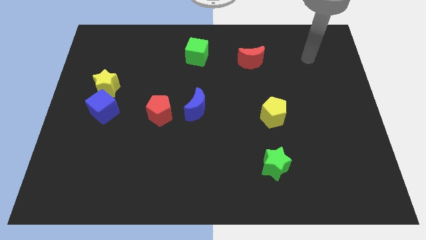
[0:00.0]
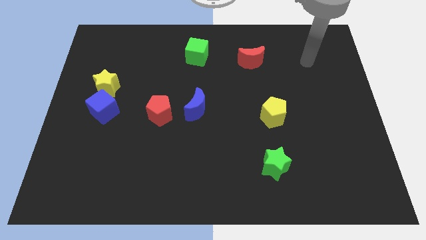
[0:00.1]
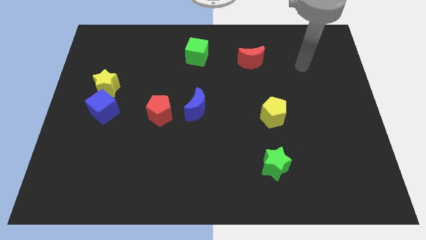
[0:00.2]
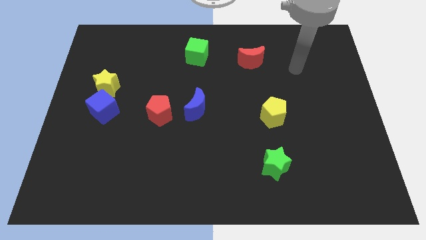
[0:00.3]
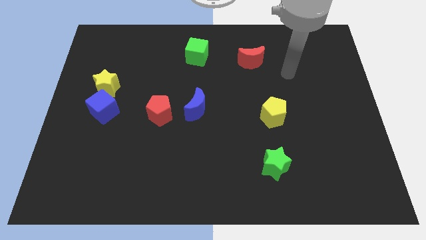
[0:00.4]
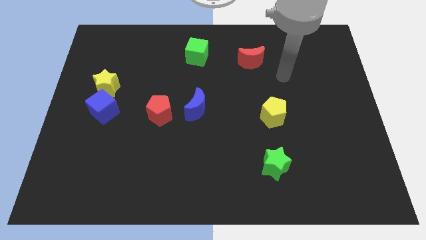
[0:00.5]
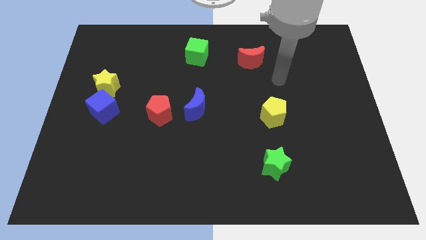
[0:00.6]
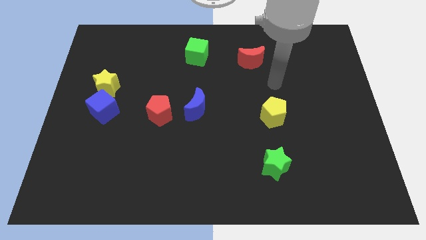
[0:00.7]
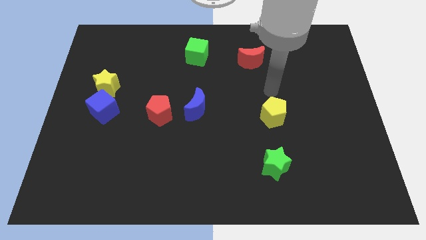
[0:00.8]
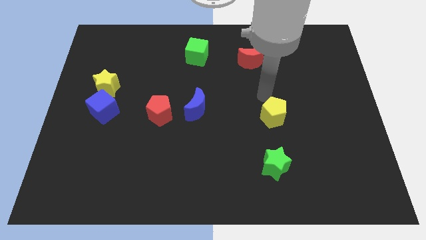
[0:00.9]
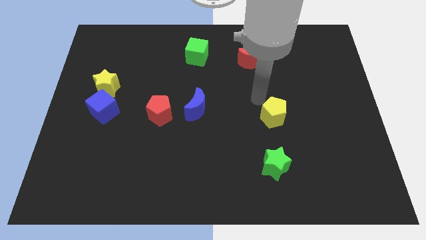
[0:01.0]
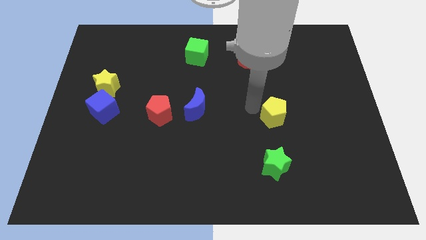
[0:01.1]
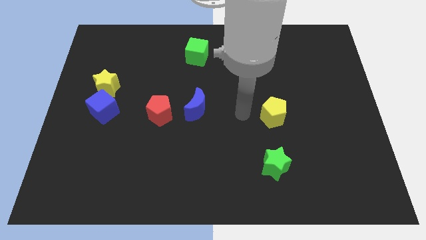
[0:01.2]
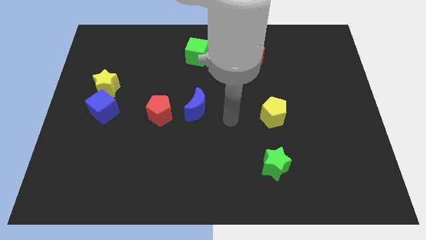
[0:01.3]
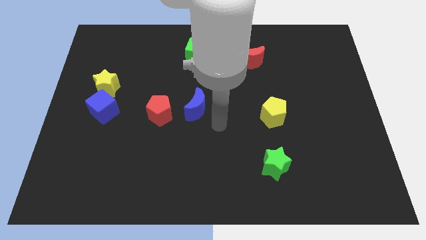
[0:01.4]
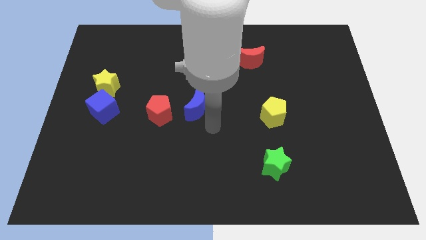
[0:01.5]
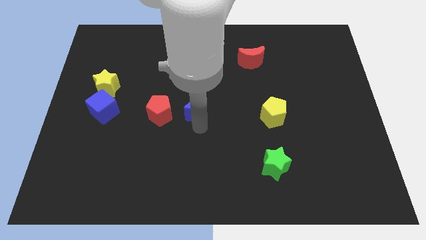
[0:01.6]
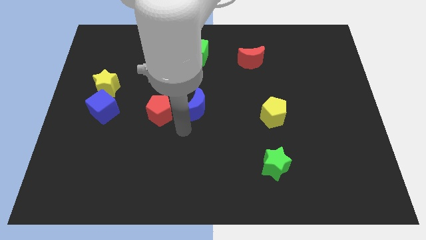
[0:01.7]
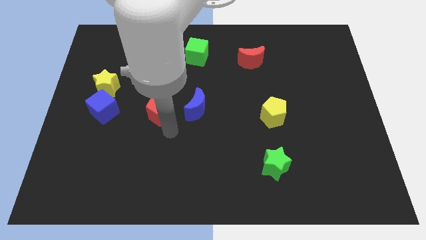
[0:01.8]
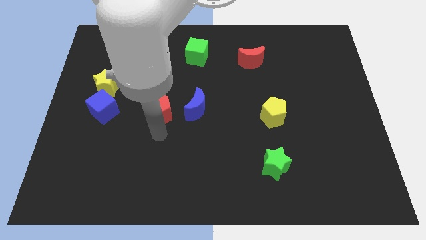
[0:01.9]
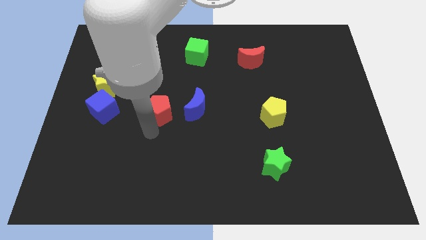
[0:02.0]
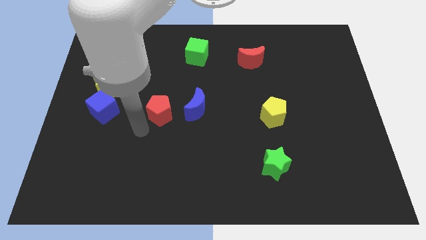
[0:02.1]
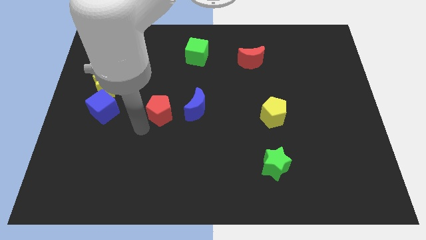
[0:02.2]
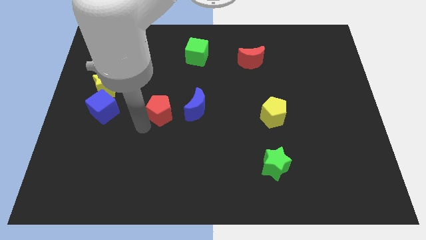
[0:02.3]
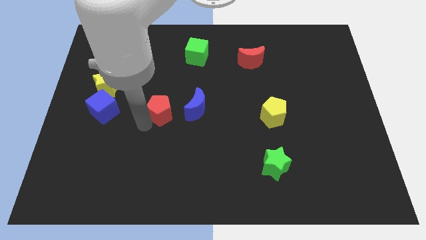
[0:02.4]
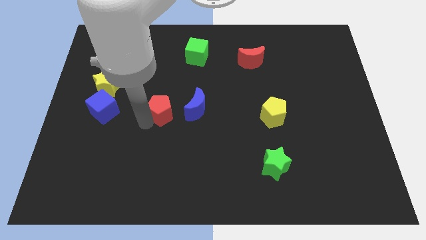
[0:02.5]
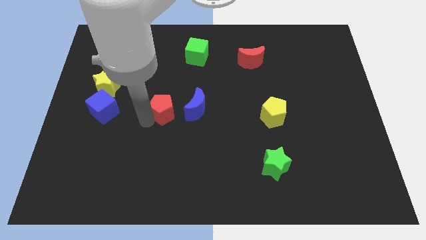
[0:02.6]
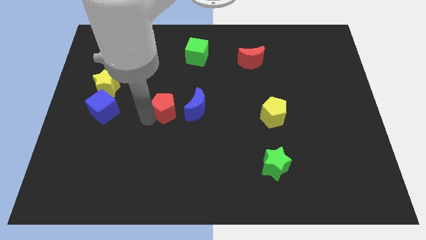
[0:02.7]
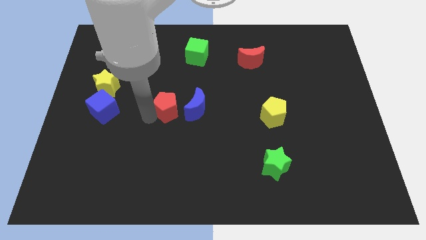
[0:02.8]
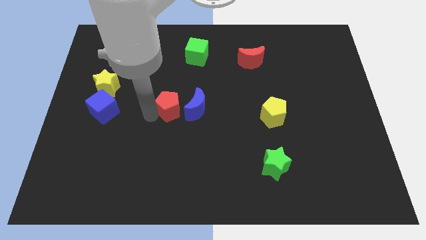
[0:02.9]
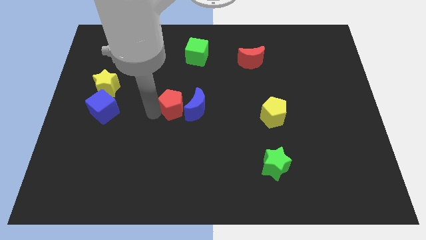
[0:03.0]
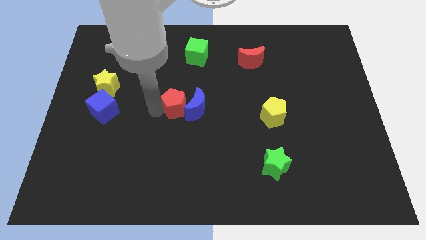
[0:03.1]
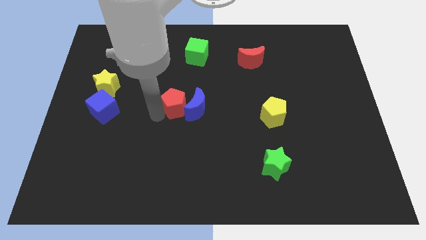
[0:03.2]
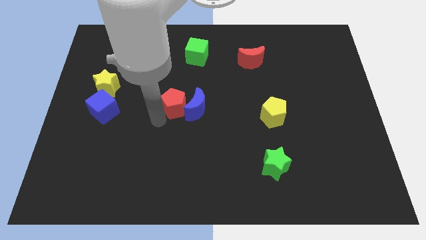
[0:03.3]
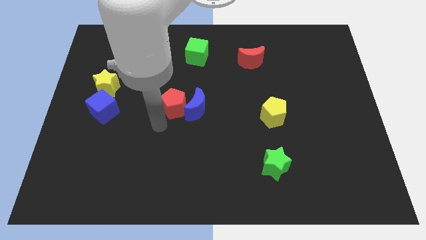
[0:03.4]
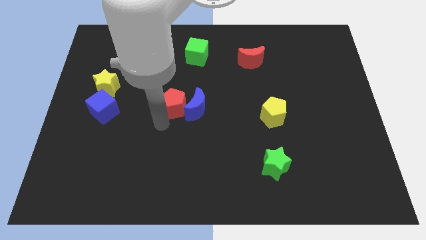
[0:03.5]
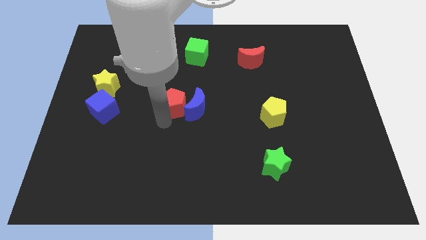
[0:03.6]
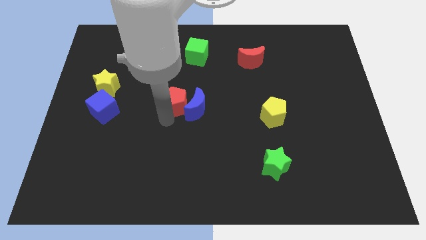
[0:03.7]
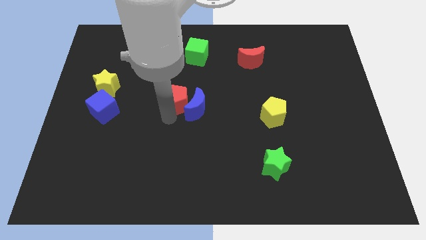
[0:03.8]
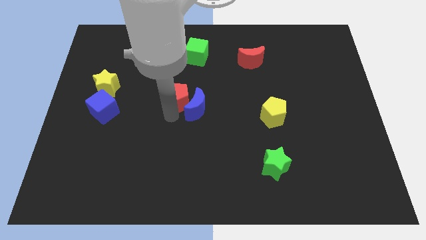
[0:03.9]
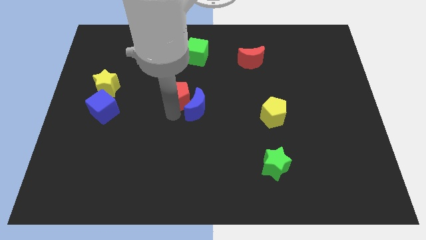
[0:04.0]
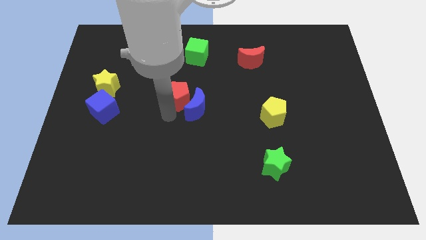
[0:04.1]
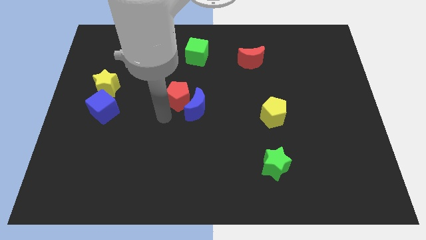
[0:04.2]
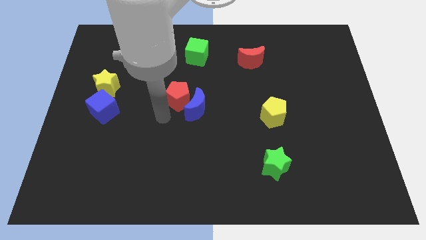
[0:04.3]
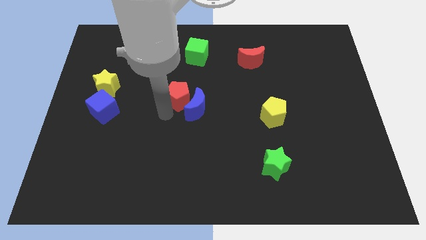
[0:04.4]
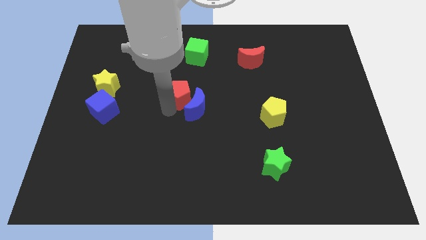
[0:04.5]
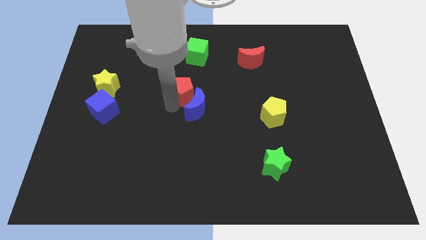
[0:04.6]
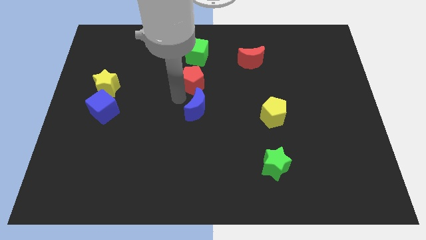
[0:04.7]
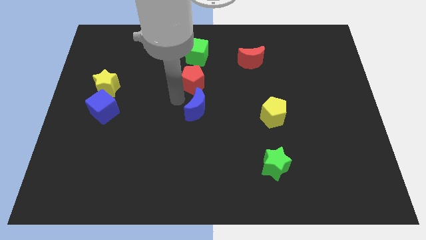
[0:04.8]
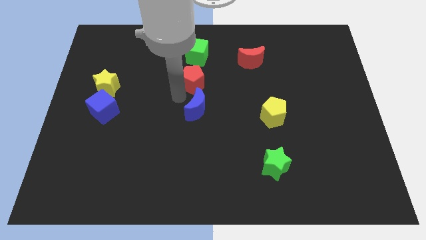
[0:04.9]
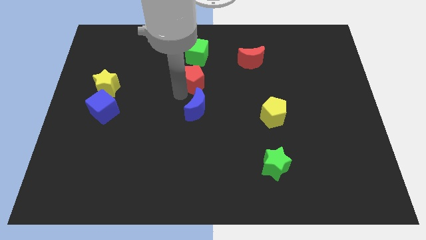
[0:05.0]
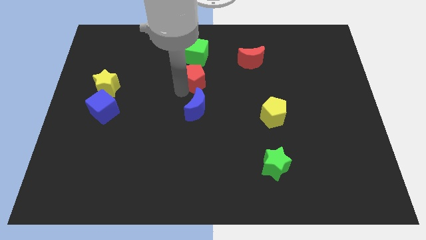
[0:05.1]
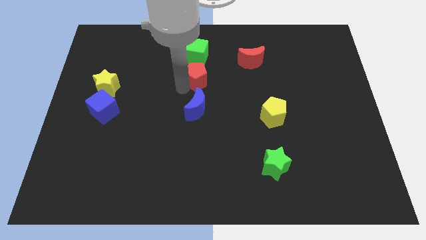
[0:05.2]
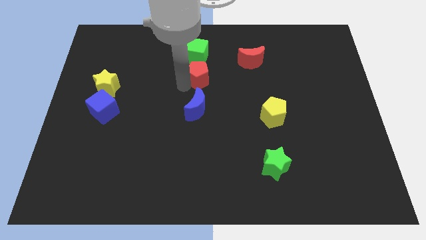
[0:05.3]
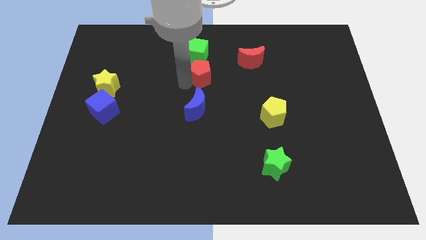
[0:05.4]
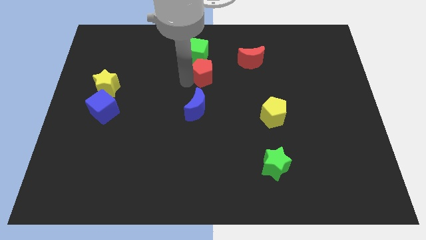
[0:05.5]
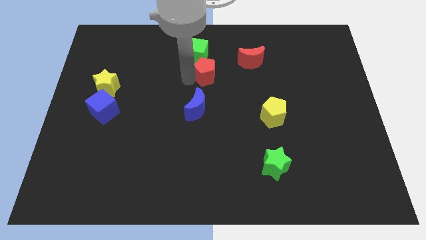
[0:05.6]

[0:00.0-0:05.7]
put the red pentagon to the left of the red moon
